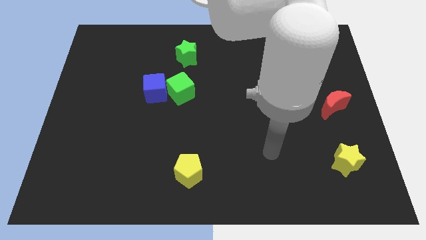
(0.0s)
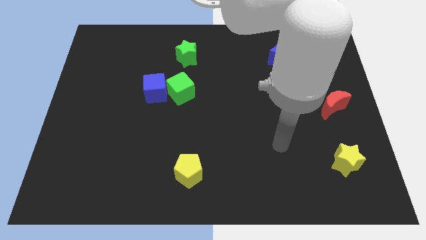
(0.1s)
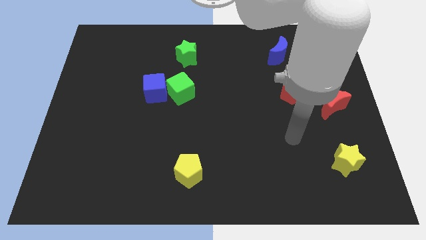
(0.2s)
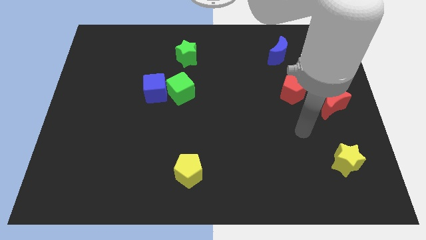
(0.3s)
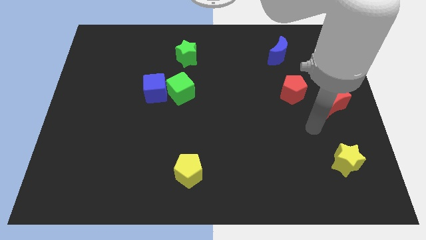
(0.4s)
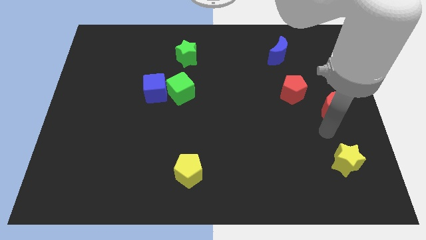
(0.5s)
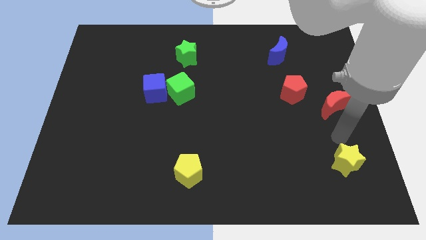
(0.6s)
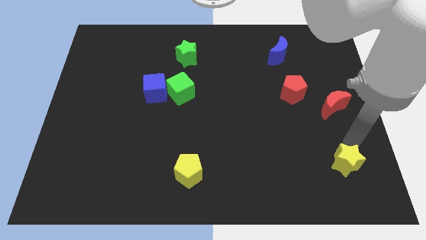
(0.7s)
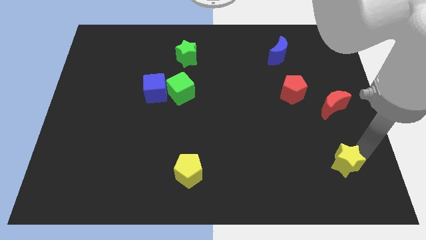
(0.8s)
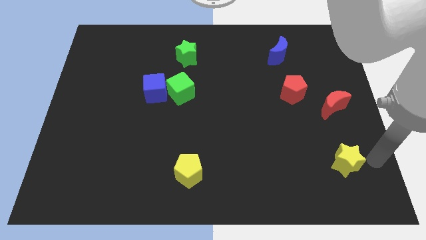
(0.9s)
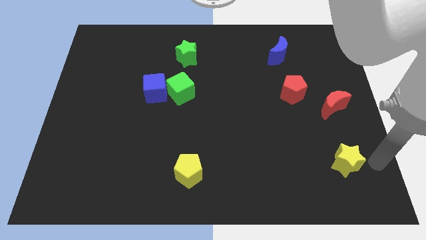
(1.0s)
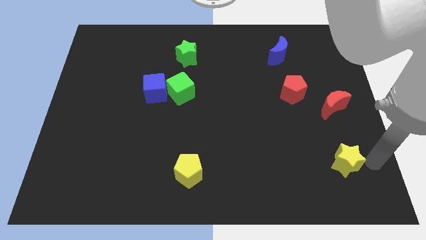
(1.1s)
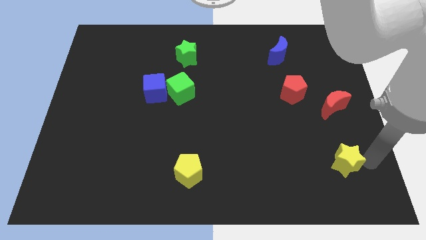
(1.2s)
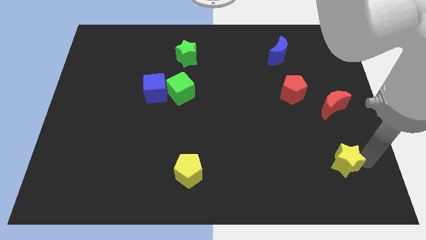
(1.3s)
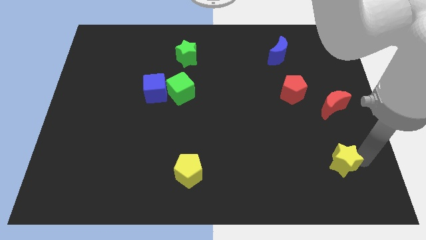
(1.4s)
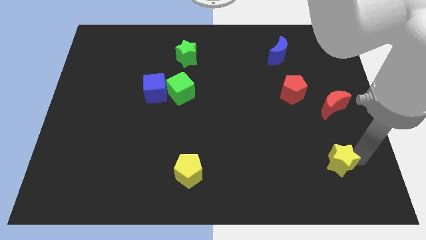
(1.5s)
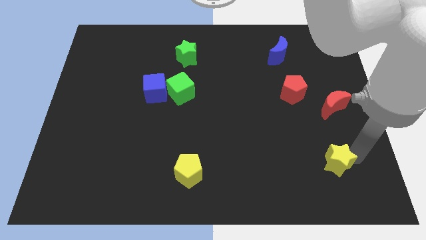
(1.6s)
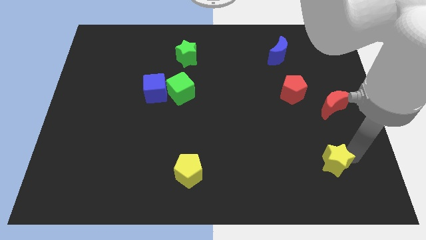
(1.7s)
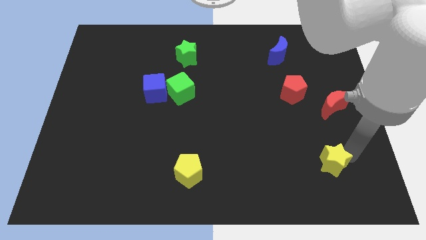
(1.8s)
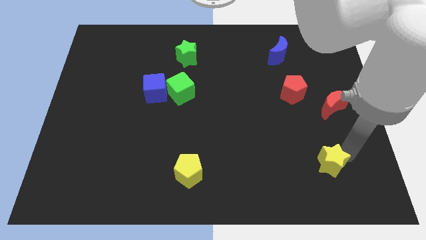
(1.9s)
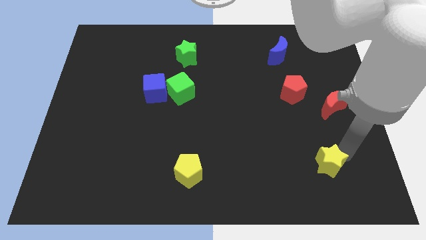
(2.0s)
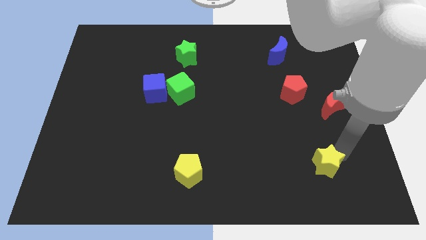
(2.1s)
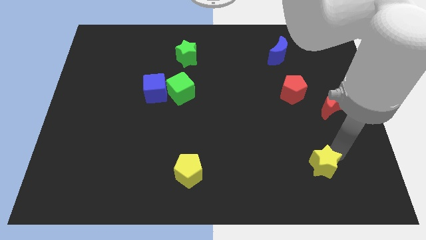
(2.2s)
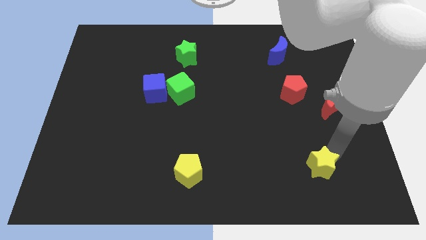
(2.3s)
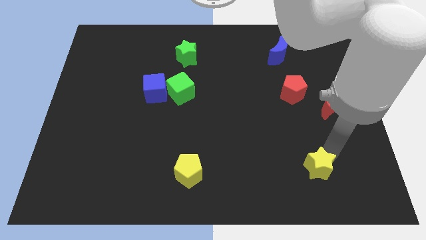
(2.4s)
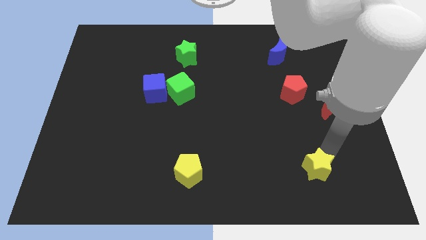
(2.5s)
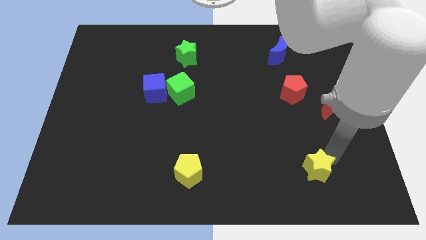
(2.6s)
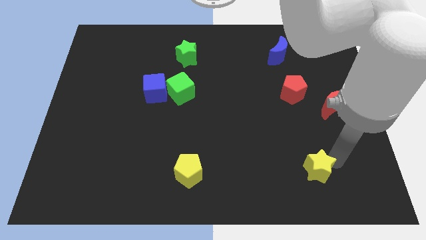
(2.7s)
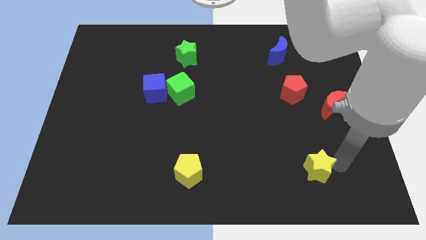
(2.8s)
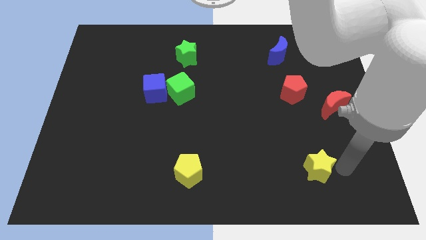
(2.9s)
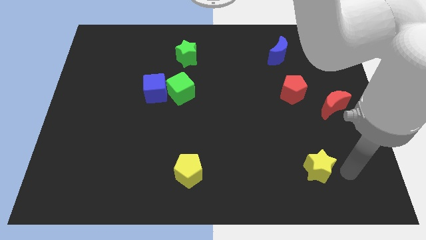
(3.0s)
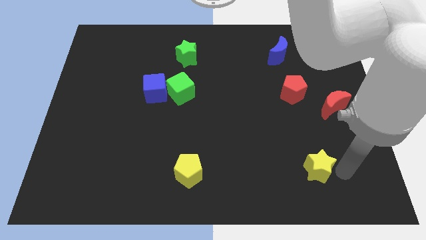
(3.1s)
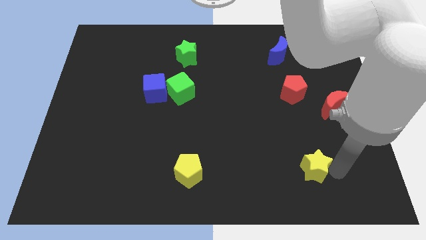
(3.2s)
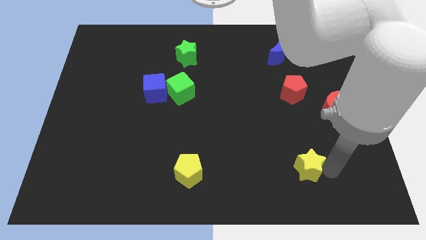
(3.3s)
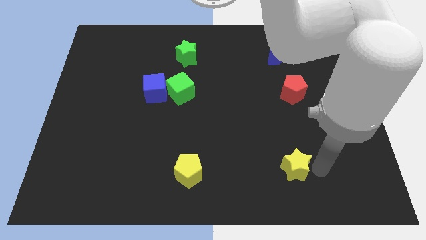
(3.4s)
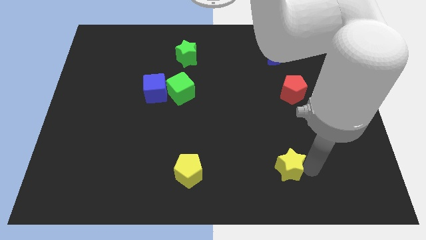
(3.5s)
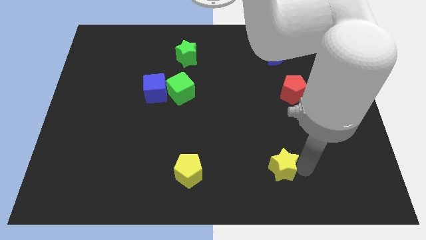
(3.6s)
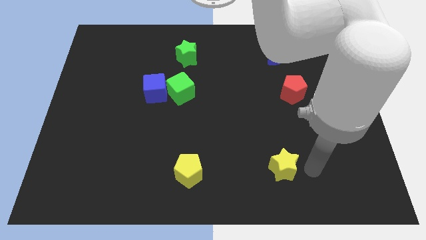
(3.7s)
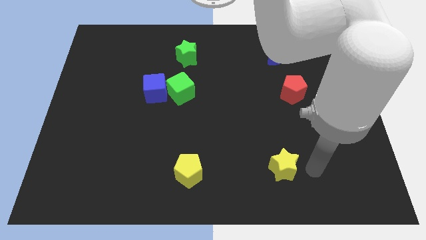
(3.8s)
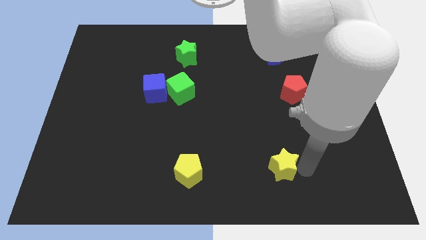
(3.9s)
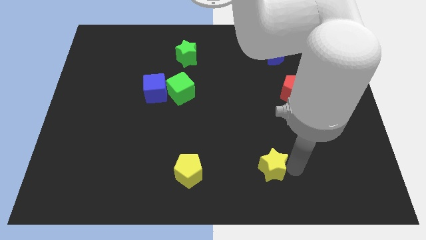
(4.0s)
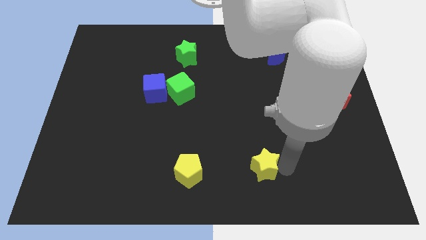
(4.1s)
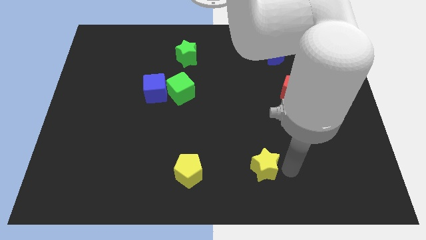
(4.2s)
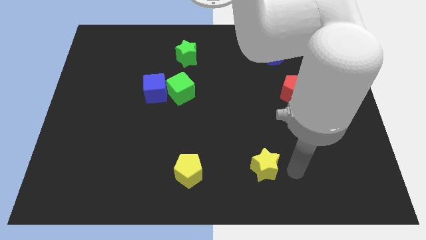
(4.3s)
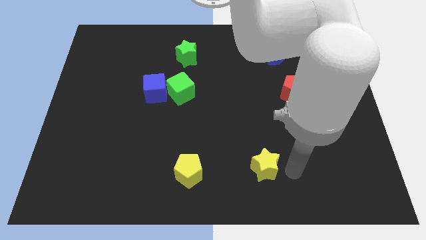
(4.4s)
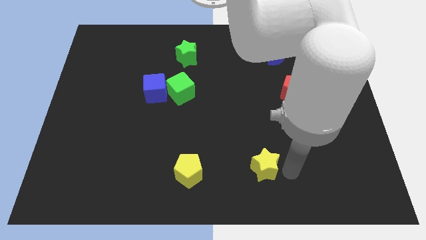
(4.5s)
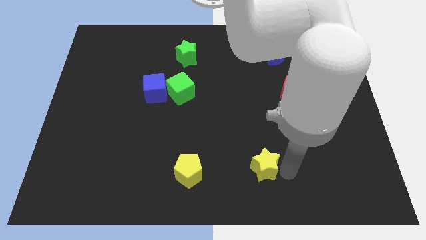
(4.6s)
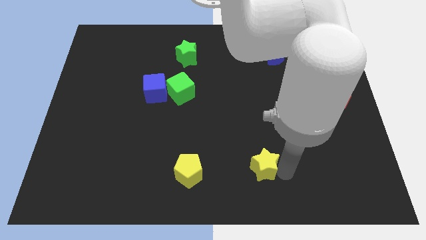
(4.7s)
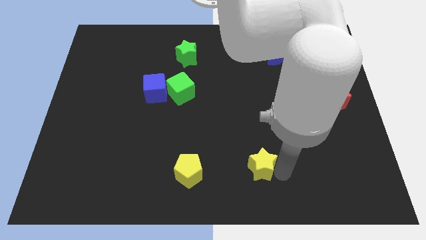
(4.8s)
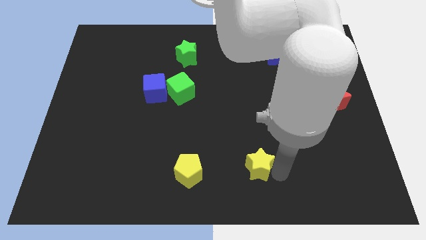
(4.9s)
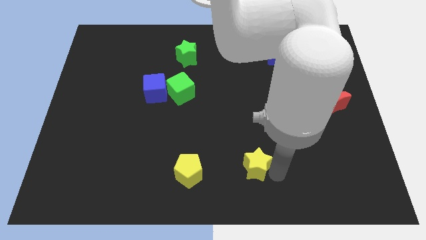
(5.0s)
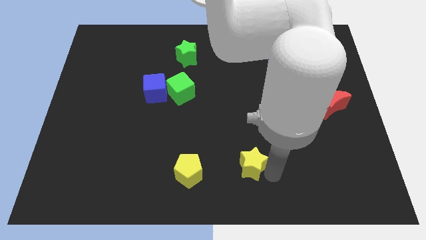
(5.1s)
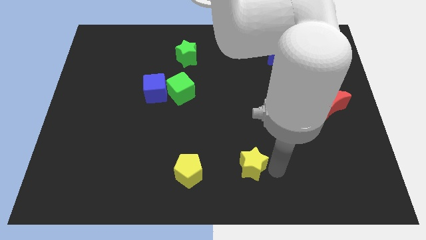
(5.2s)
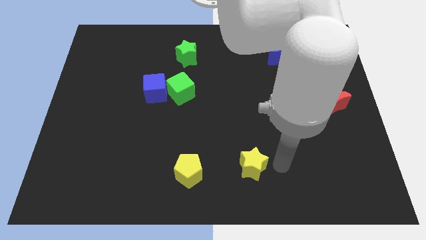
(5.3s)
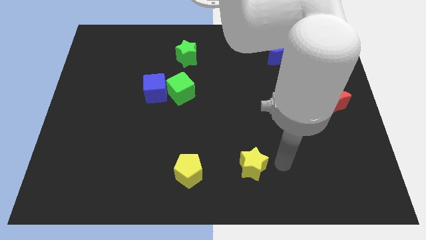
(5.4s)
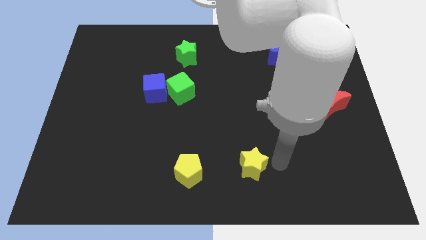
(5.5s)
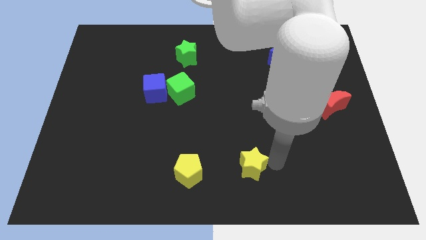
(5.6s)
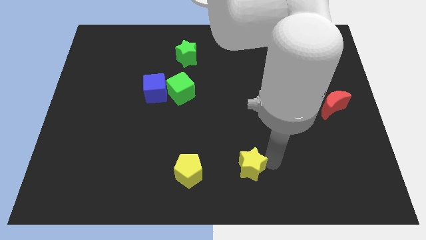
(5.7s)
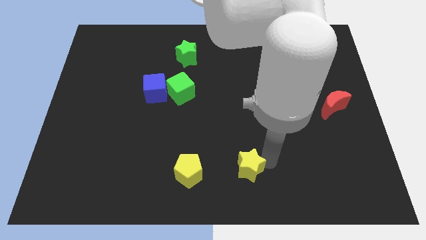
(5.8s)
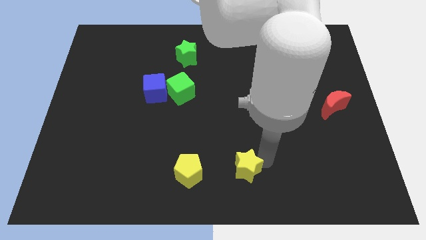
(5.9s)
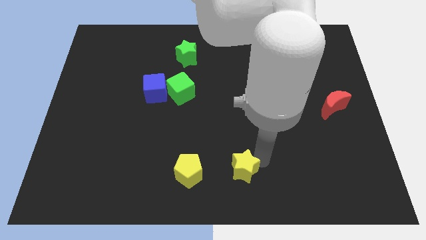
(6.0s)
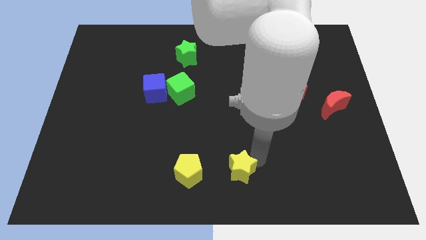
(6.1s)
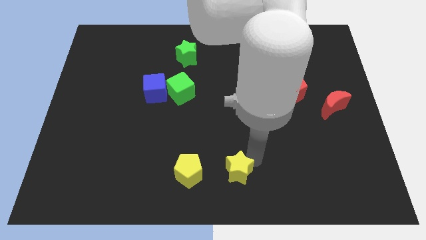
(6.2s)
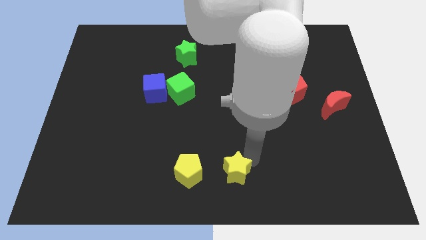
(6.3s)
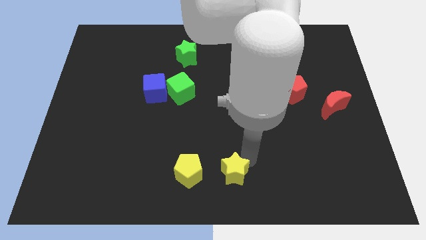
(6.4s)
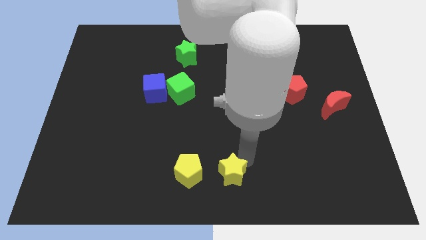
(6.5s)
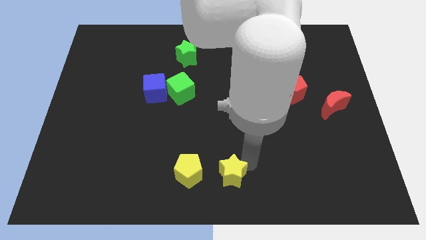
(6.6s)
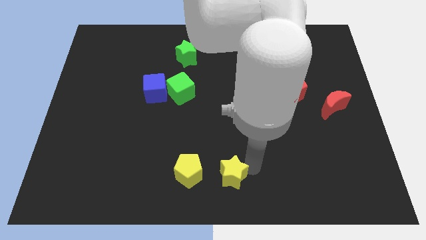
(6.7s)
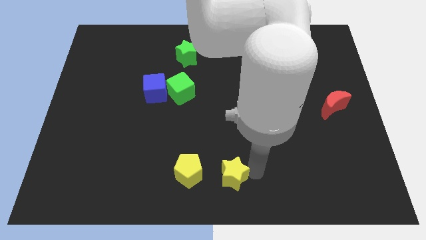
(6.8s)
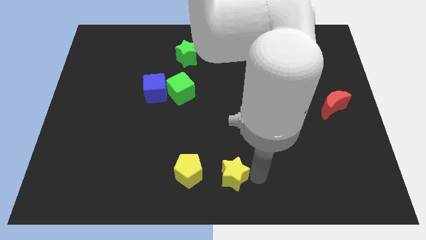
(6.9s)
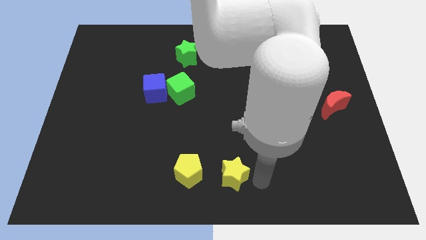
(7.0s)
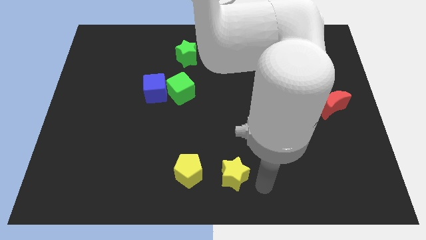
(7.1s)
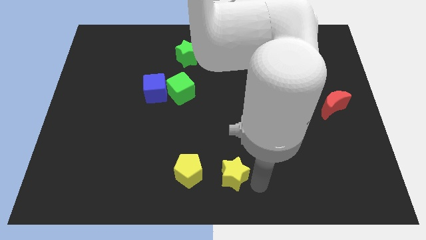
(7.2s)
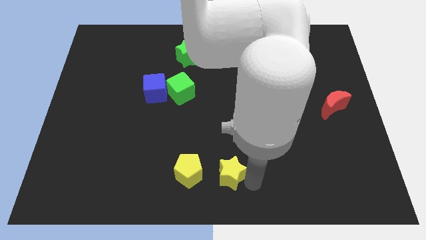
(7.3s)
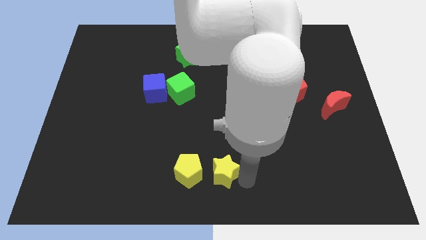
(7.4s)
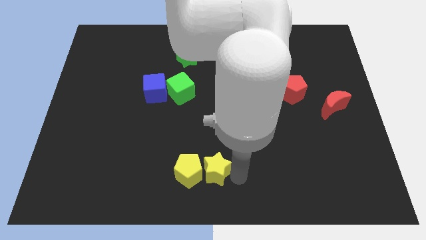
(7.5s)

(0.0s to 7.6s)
slide the yellow star next to the yellow pentagon
